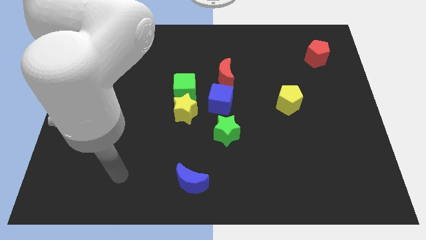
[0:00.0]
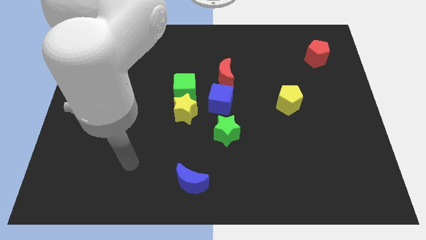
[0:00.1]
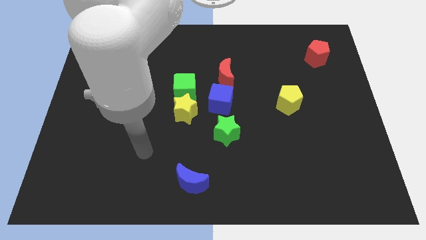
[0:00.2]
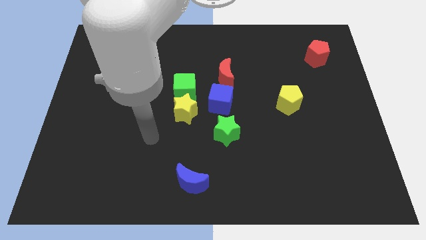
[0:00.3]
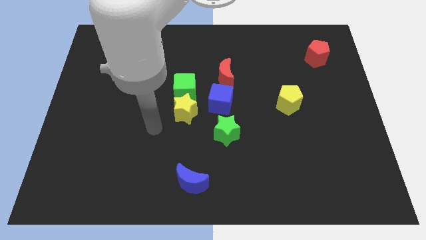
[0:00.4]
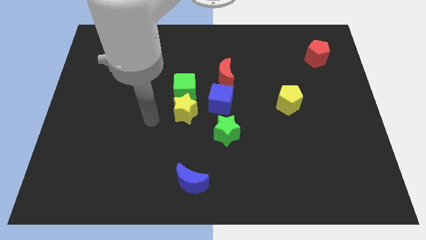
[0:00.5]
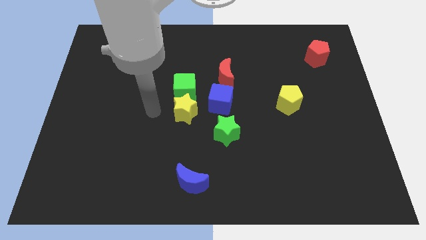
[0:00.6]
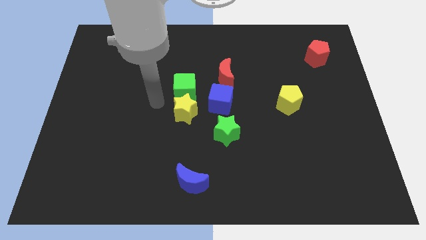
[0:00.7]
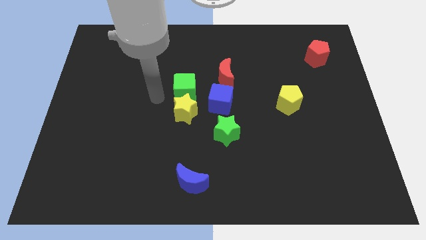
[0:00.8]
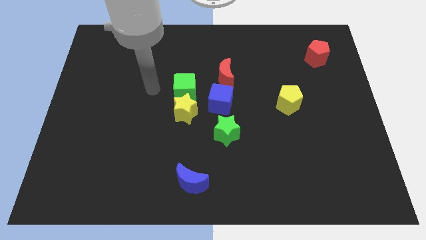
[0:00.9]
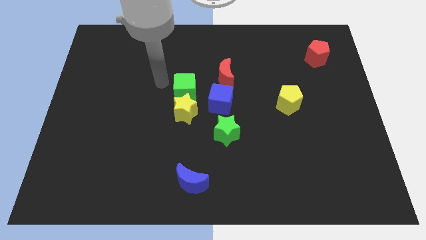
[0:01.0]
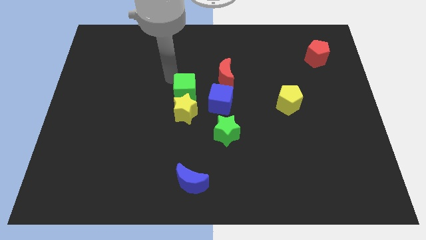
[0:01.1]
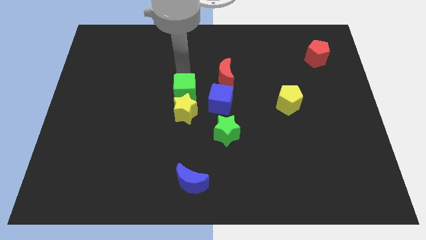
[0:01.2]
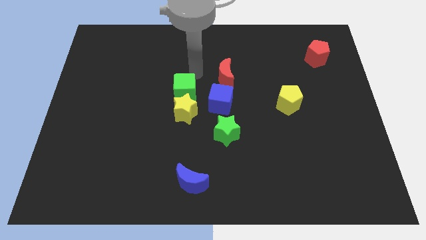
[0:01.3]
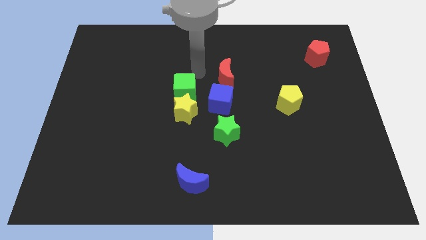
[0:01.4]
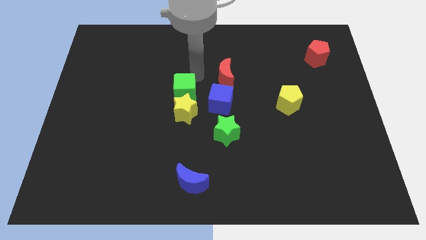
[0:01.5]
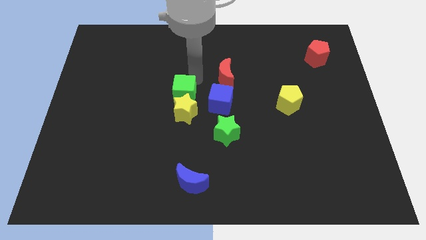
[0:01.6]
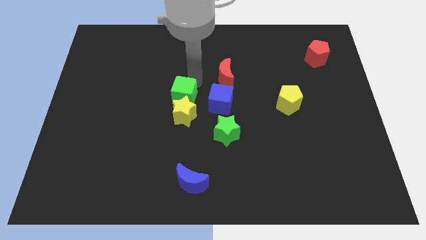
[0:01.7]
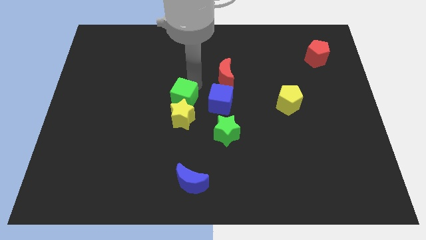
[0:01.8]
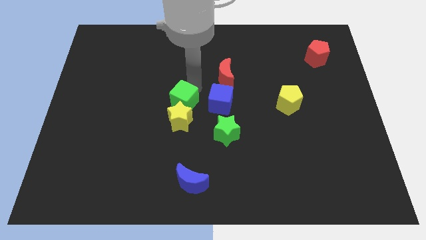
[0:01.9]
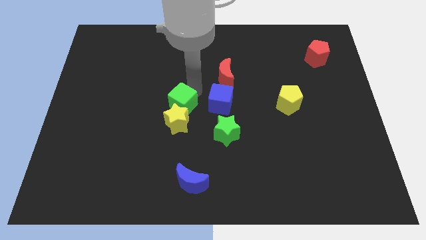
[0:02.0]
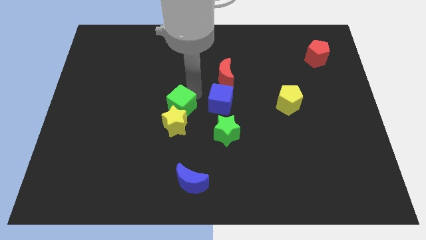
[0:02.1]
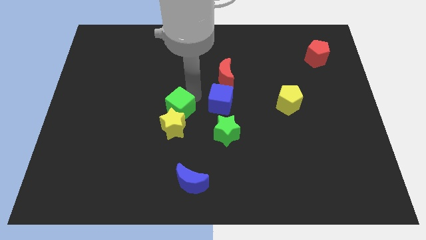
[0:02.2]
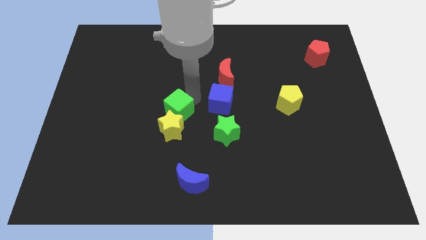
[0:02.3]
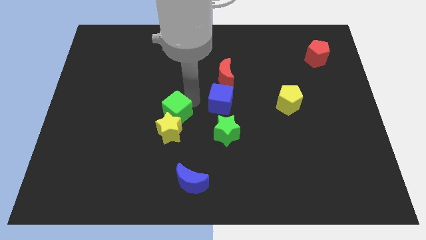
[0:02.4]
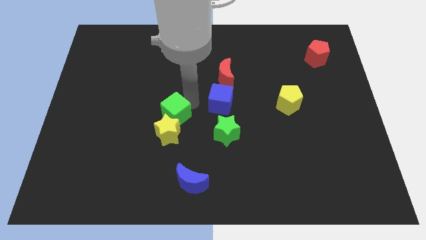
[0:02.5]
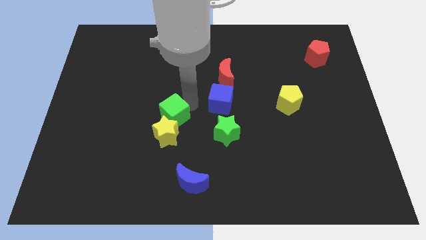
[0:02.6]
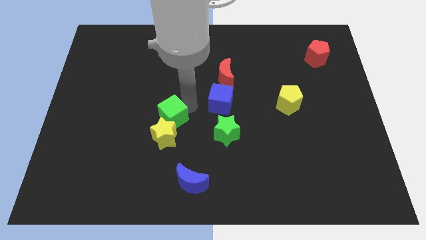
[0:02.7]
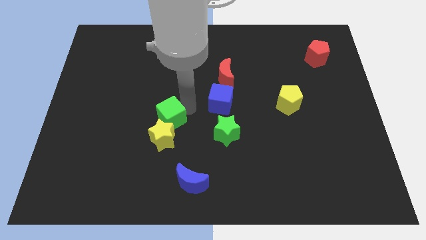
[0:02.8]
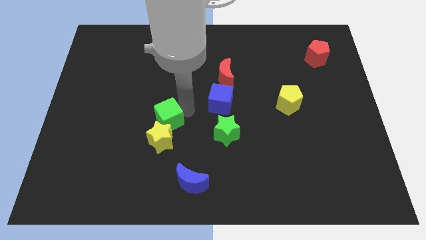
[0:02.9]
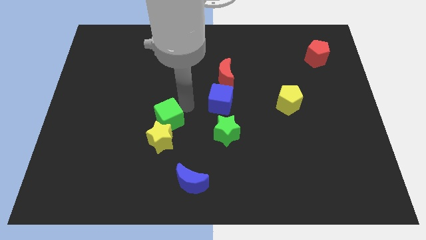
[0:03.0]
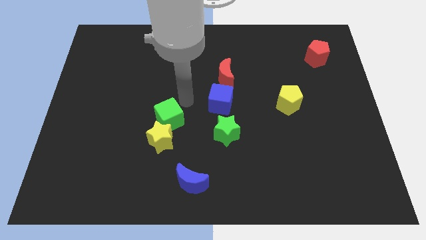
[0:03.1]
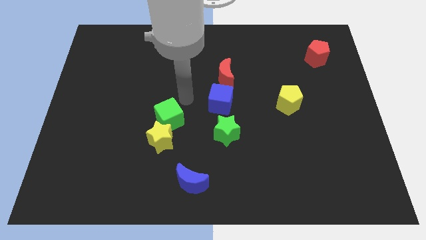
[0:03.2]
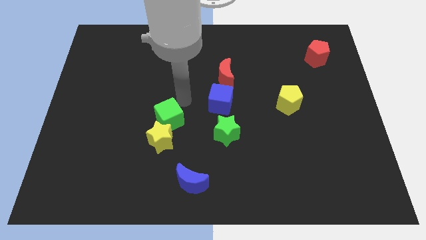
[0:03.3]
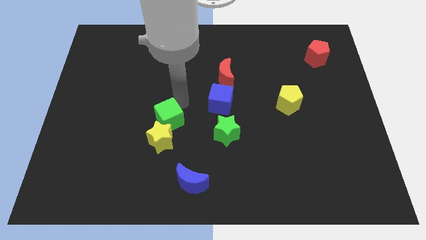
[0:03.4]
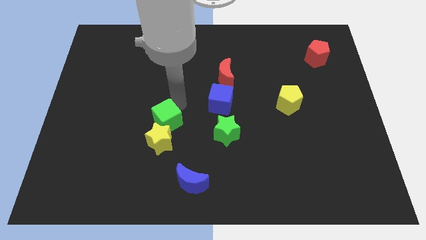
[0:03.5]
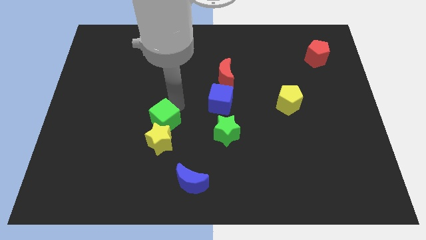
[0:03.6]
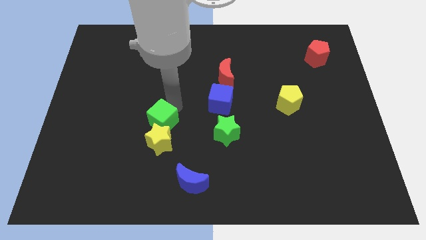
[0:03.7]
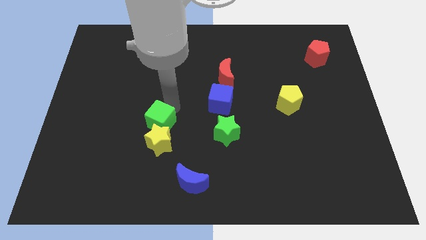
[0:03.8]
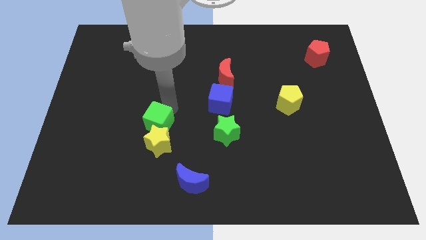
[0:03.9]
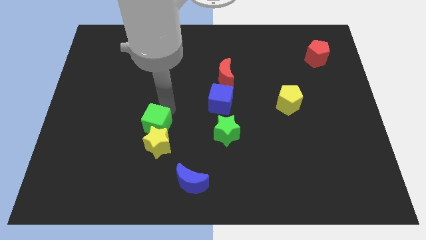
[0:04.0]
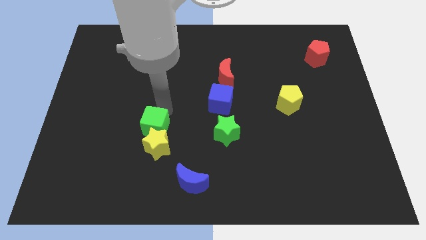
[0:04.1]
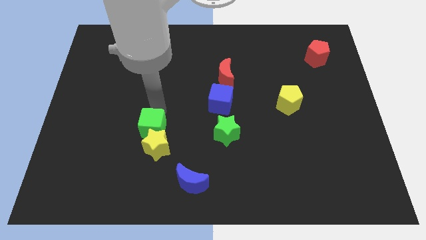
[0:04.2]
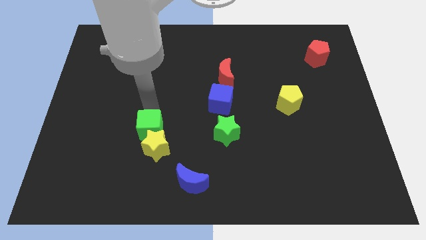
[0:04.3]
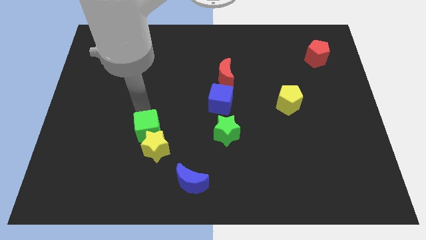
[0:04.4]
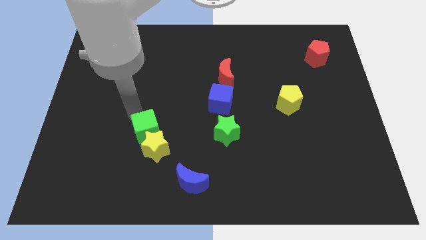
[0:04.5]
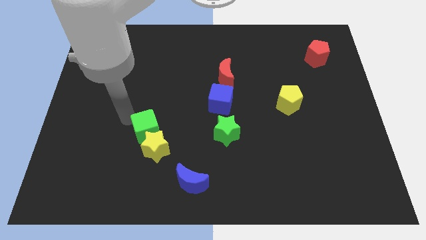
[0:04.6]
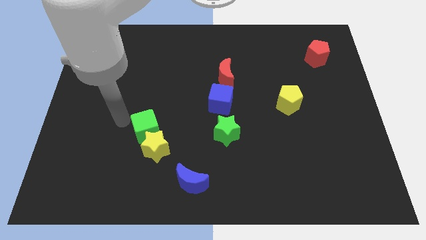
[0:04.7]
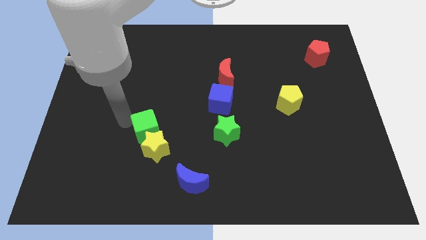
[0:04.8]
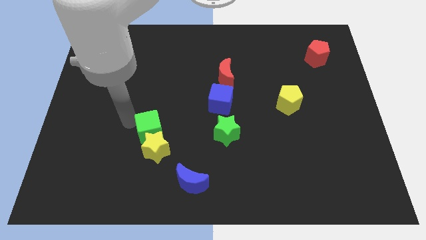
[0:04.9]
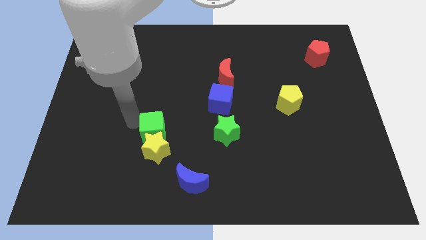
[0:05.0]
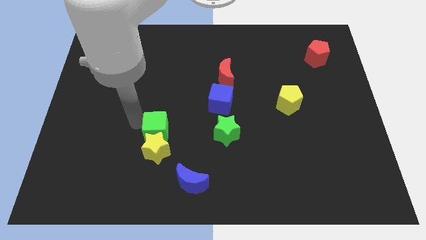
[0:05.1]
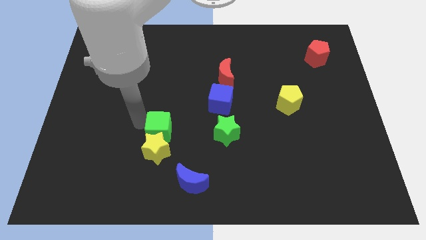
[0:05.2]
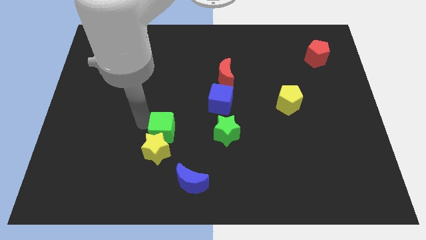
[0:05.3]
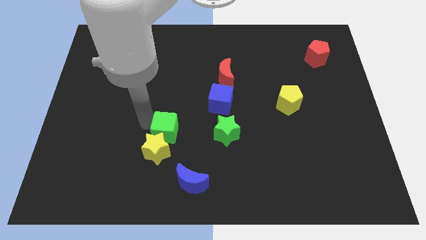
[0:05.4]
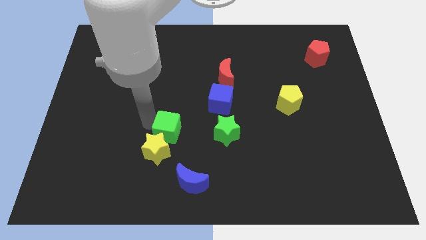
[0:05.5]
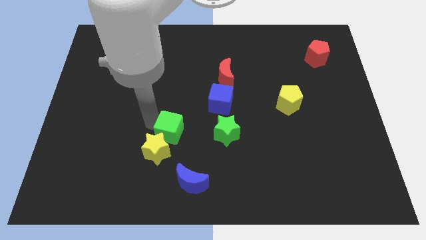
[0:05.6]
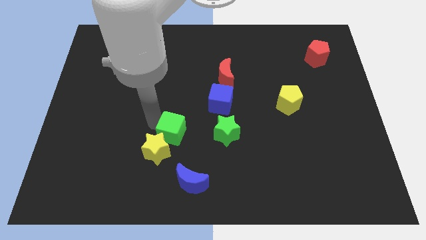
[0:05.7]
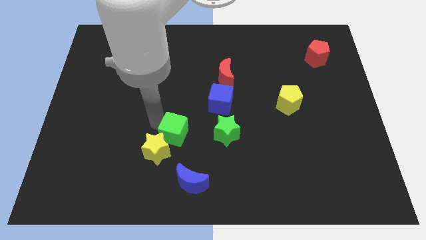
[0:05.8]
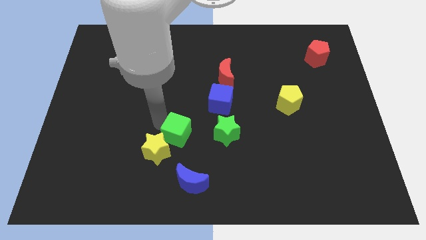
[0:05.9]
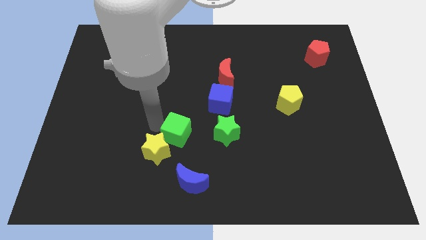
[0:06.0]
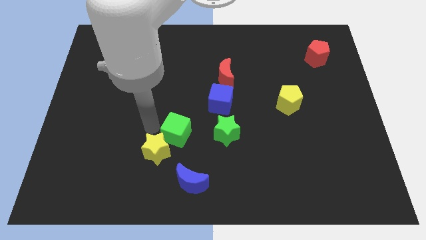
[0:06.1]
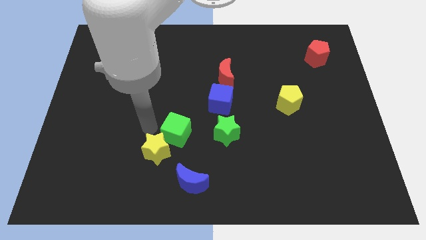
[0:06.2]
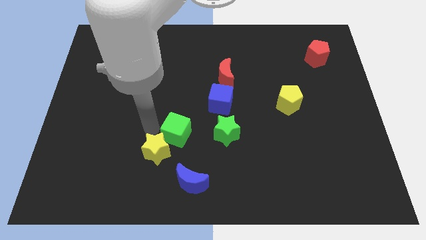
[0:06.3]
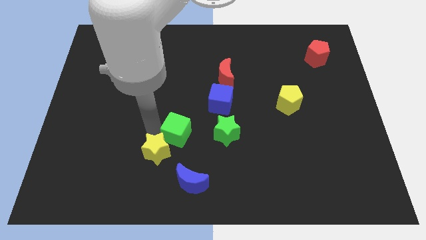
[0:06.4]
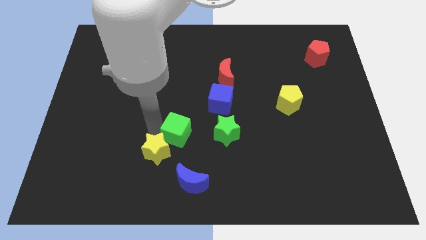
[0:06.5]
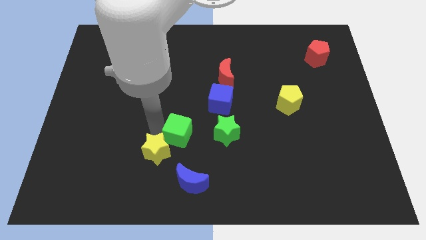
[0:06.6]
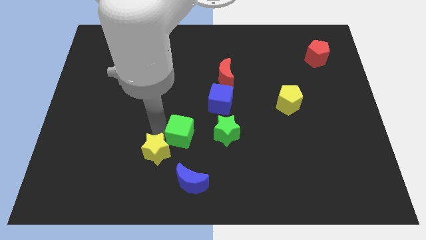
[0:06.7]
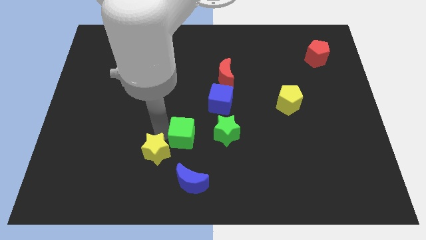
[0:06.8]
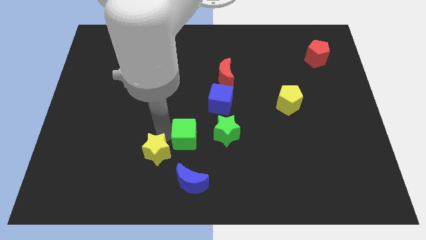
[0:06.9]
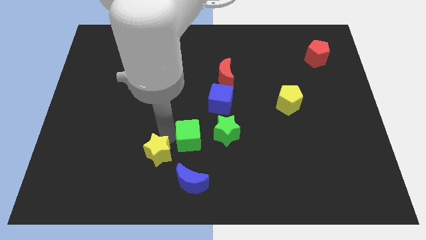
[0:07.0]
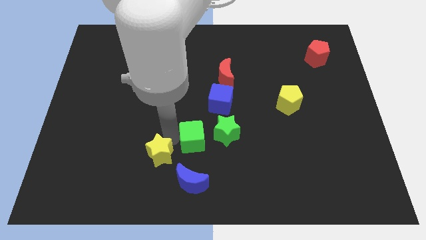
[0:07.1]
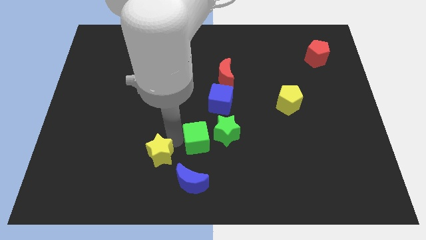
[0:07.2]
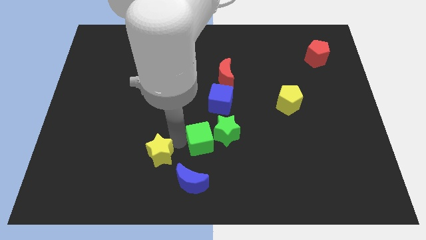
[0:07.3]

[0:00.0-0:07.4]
move the green cube to the green star
